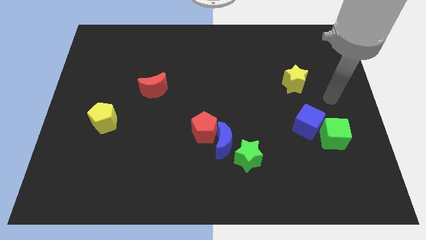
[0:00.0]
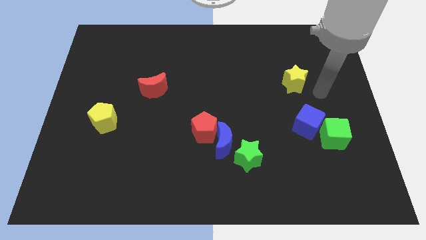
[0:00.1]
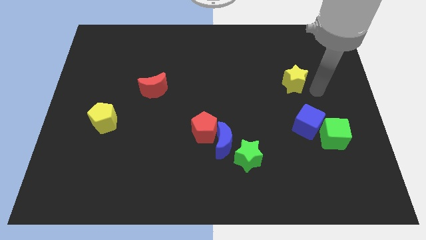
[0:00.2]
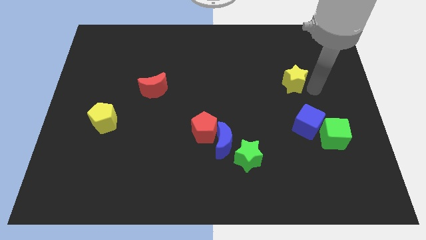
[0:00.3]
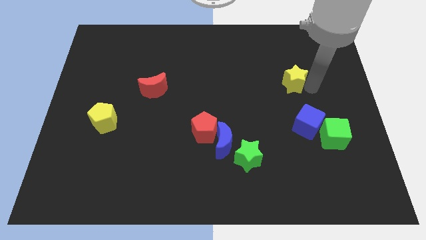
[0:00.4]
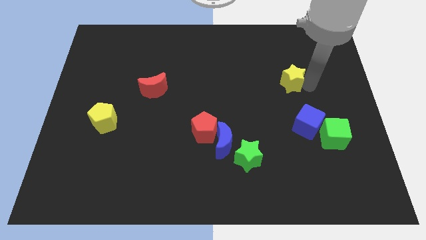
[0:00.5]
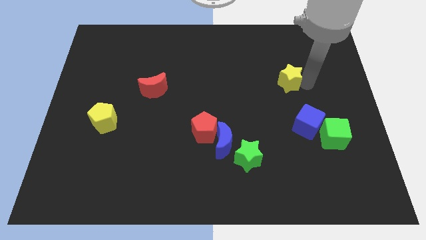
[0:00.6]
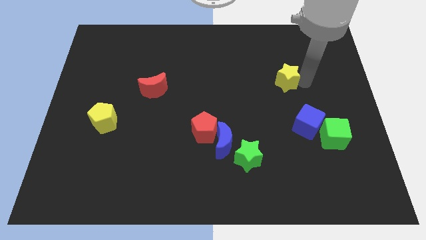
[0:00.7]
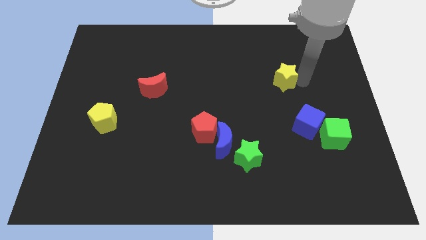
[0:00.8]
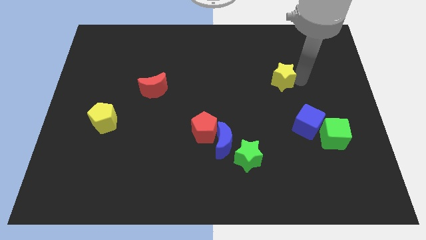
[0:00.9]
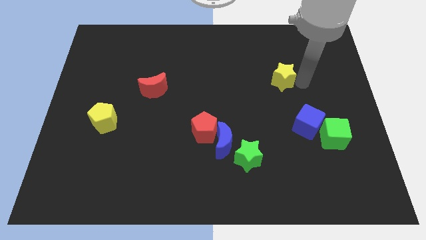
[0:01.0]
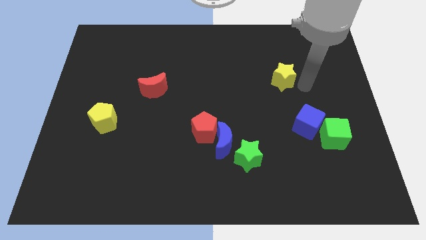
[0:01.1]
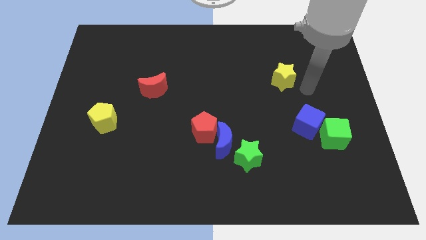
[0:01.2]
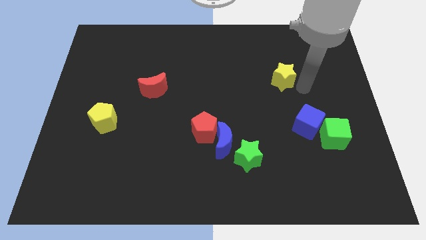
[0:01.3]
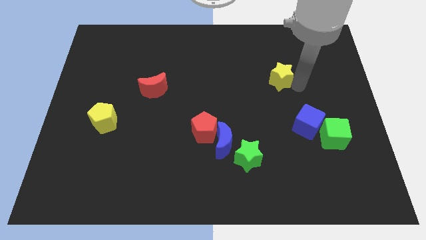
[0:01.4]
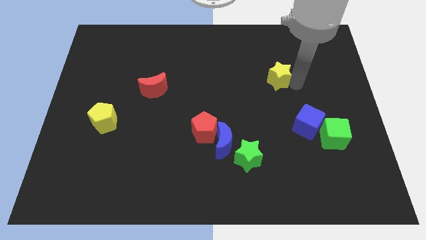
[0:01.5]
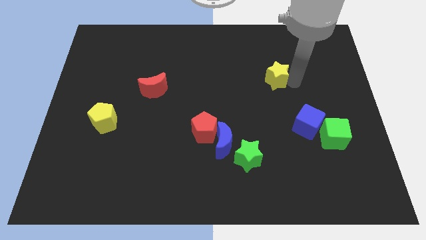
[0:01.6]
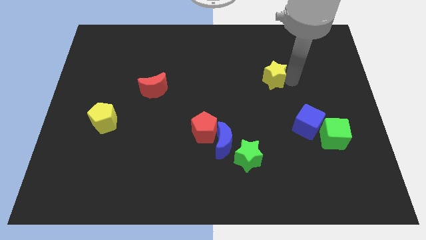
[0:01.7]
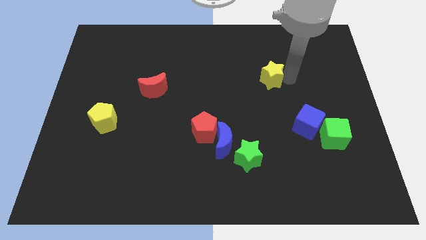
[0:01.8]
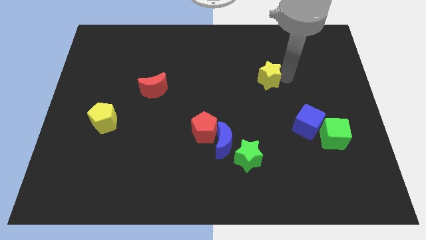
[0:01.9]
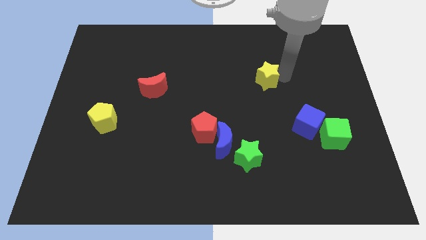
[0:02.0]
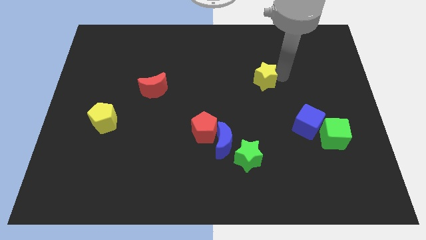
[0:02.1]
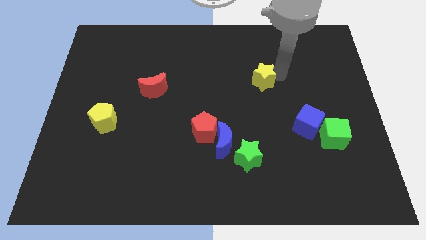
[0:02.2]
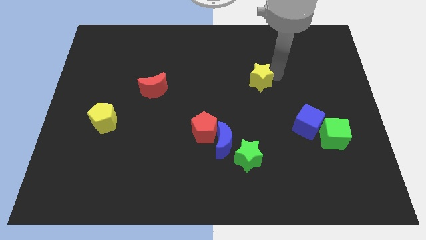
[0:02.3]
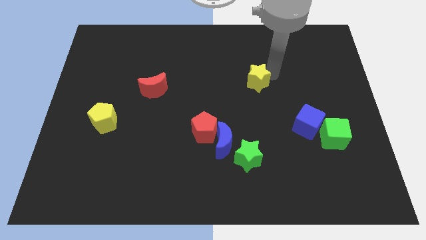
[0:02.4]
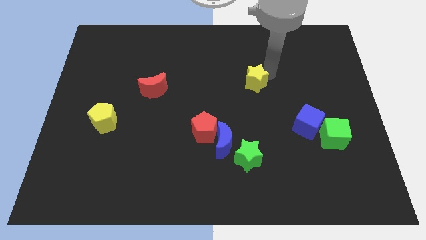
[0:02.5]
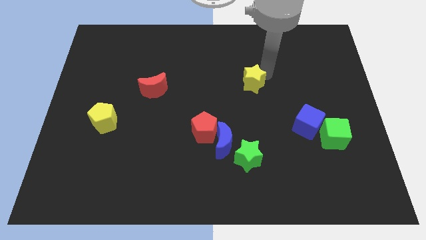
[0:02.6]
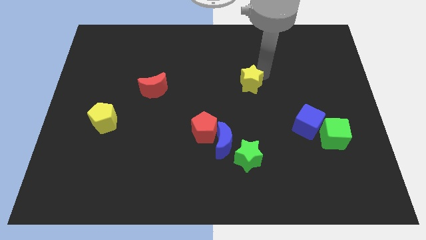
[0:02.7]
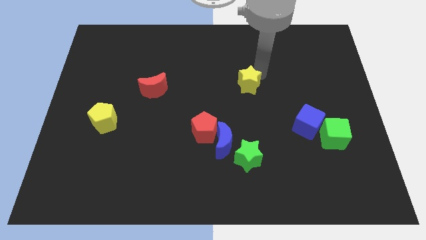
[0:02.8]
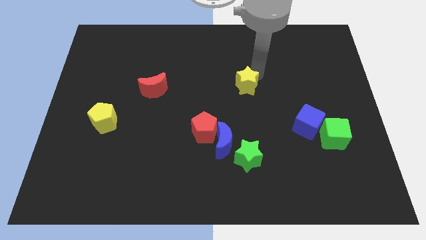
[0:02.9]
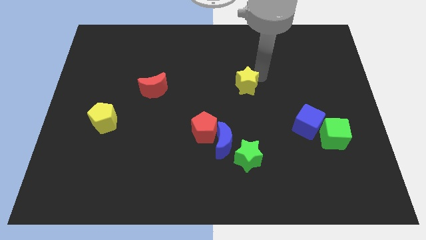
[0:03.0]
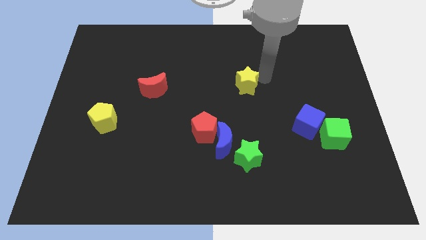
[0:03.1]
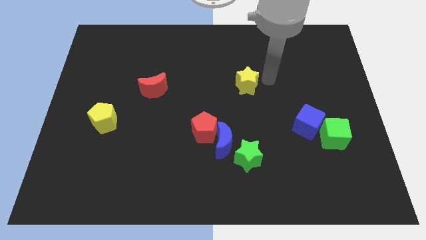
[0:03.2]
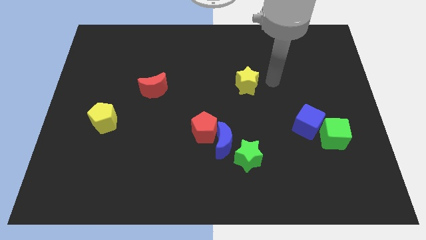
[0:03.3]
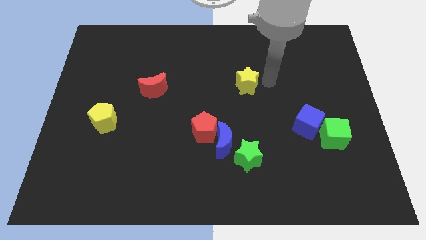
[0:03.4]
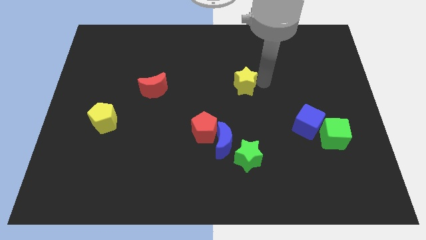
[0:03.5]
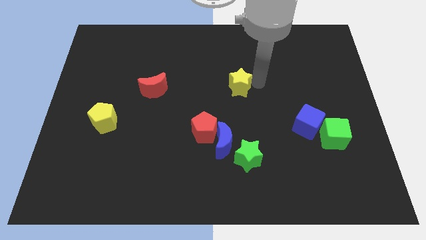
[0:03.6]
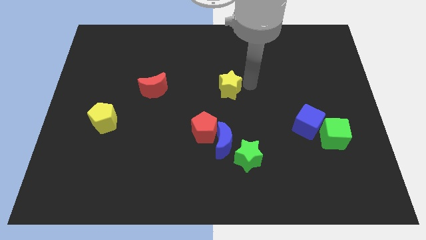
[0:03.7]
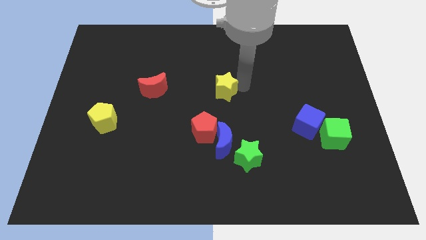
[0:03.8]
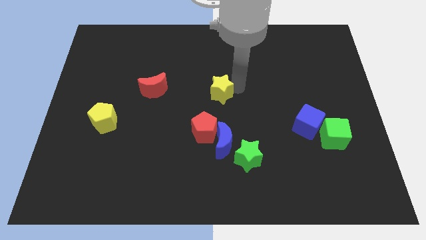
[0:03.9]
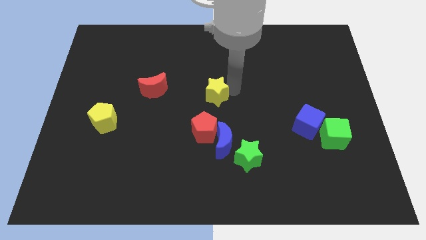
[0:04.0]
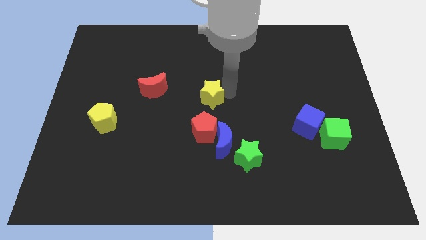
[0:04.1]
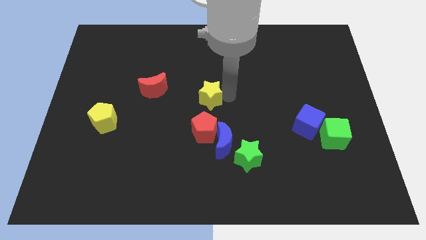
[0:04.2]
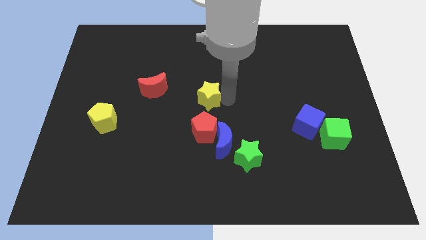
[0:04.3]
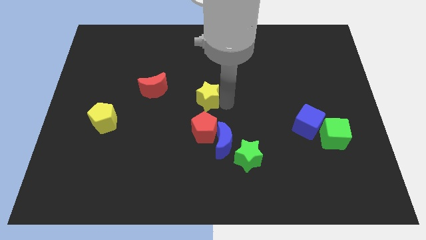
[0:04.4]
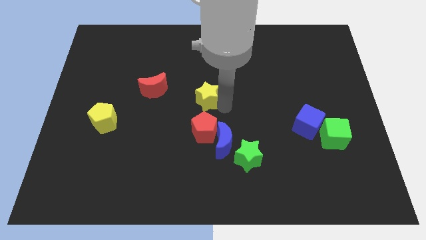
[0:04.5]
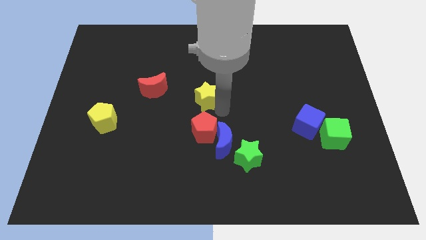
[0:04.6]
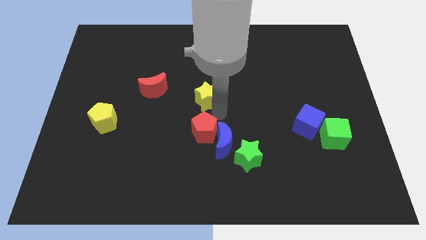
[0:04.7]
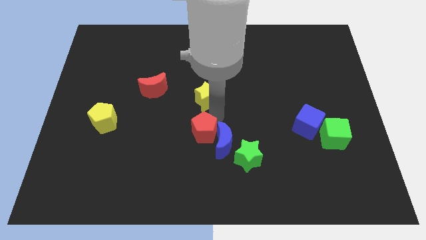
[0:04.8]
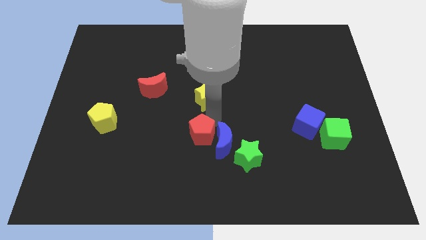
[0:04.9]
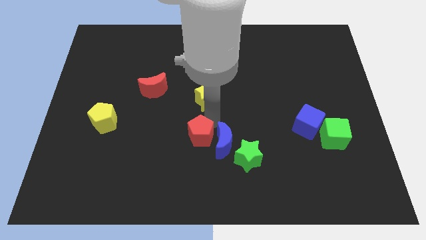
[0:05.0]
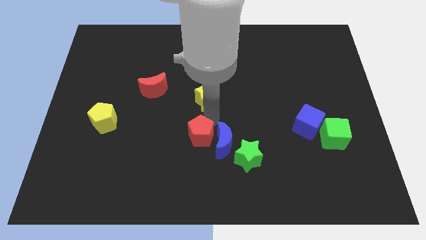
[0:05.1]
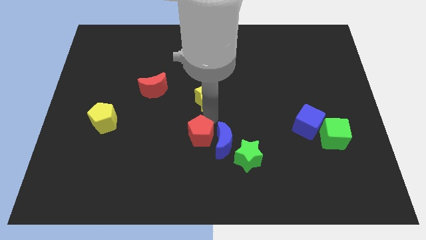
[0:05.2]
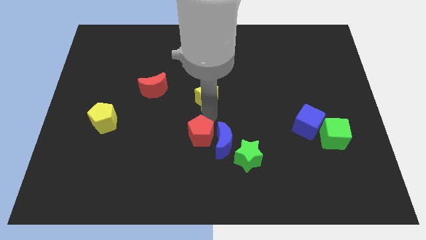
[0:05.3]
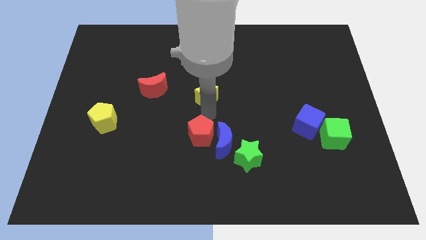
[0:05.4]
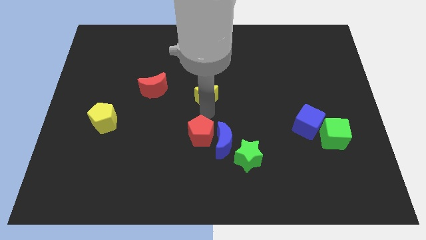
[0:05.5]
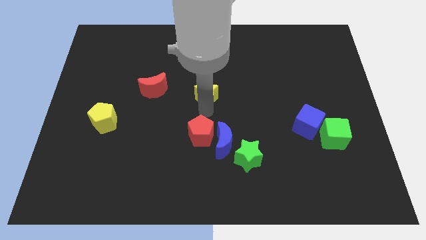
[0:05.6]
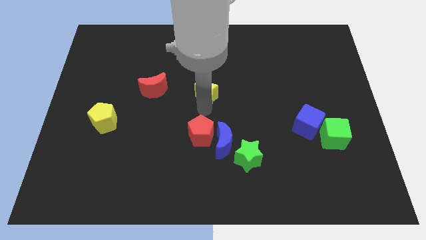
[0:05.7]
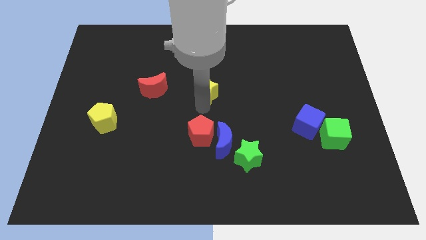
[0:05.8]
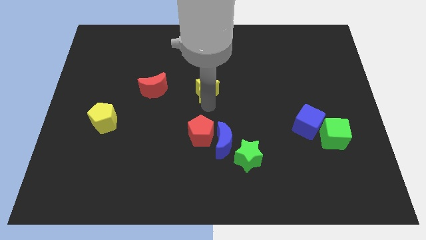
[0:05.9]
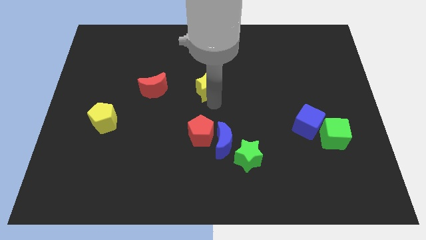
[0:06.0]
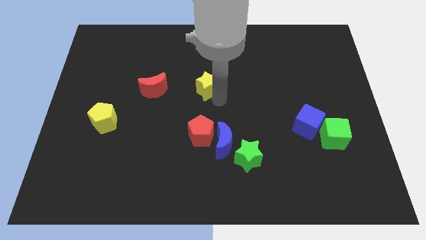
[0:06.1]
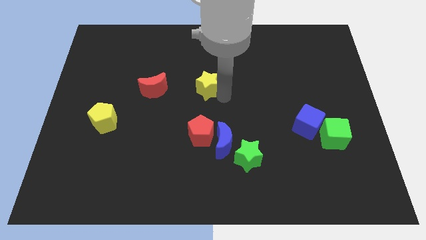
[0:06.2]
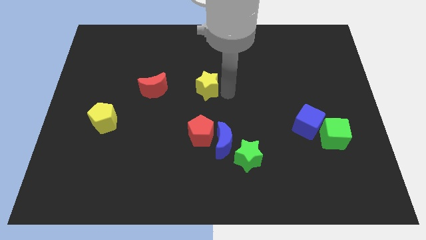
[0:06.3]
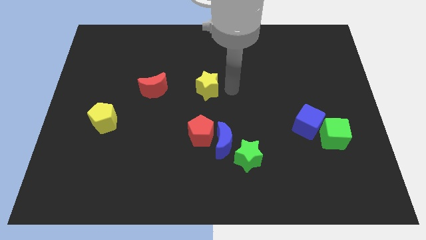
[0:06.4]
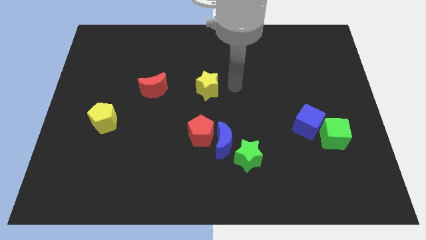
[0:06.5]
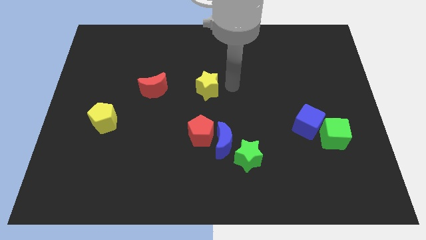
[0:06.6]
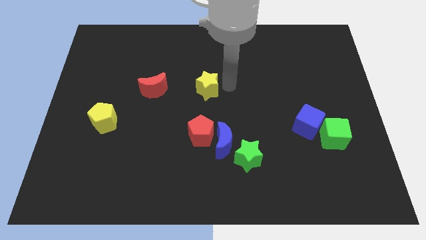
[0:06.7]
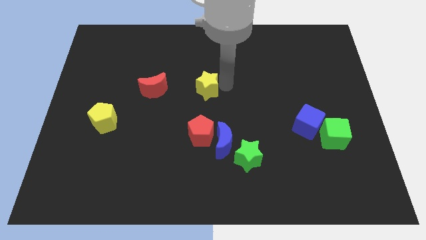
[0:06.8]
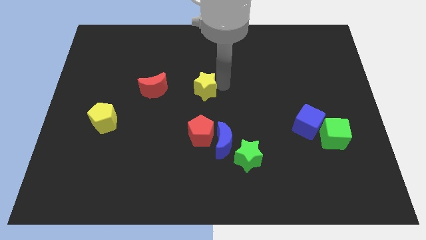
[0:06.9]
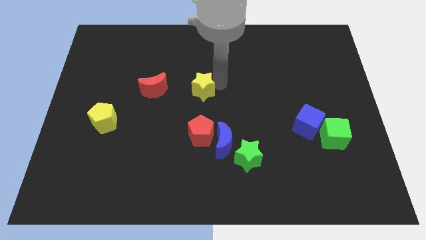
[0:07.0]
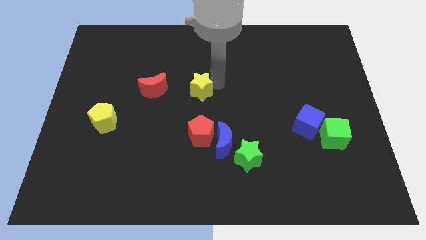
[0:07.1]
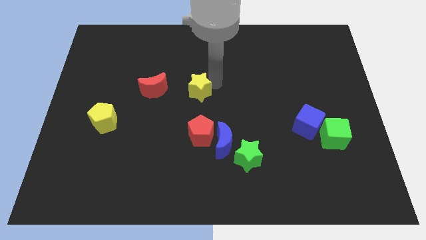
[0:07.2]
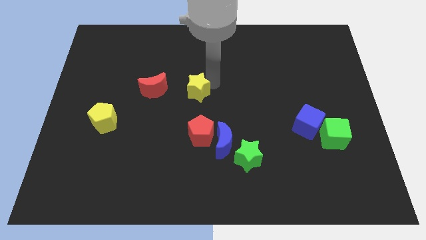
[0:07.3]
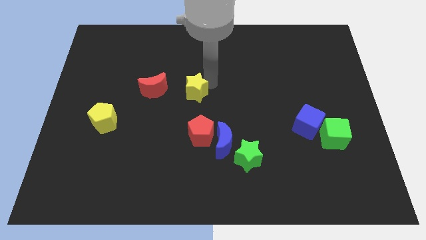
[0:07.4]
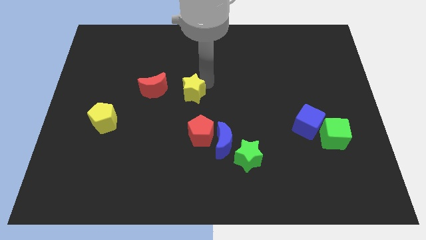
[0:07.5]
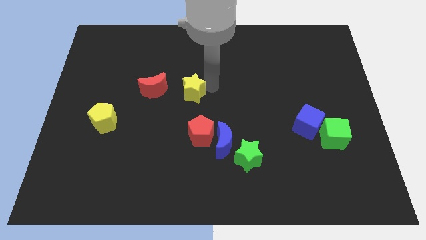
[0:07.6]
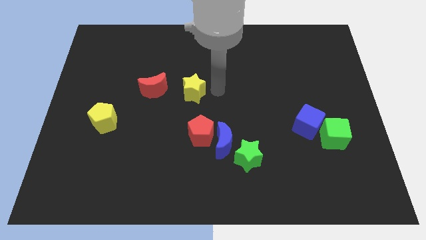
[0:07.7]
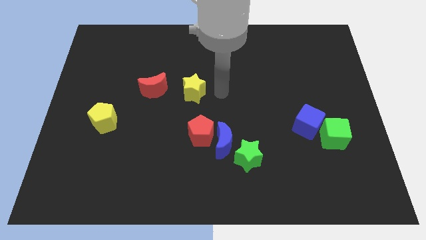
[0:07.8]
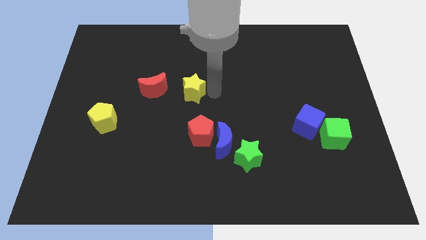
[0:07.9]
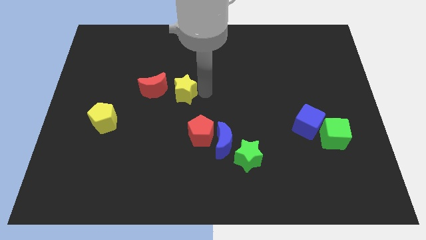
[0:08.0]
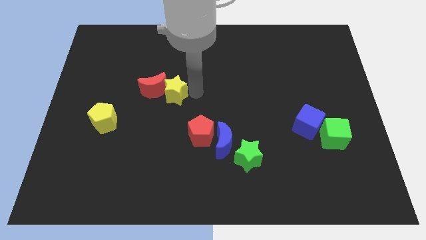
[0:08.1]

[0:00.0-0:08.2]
put the yellow star close to the red moon
